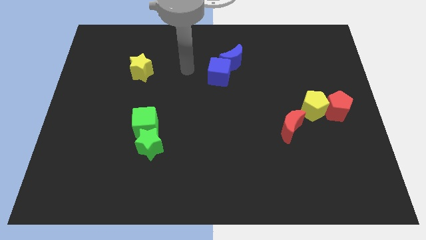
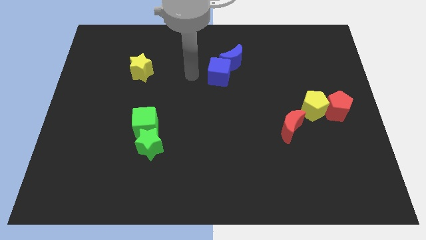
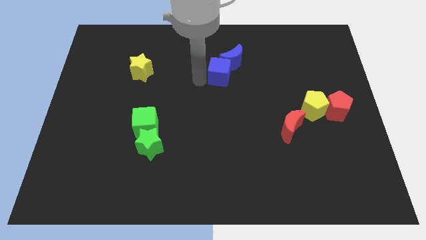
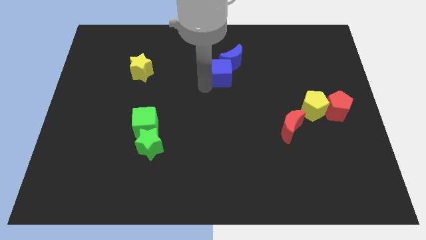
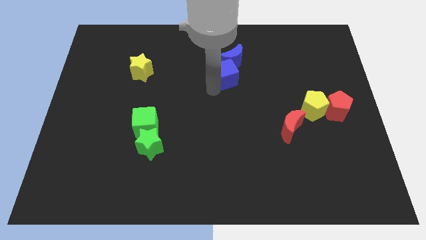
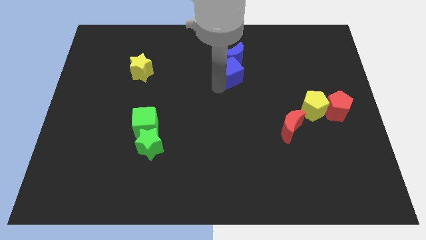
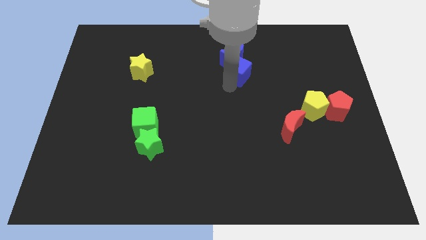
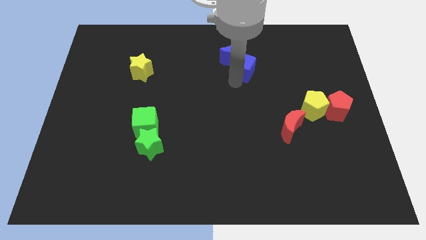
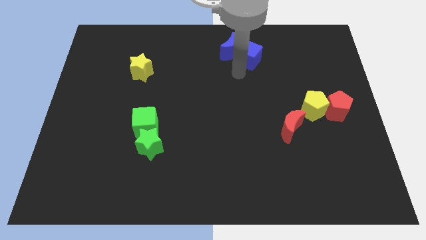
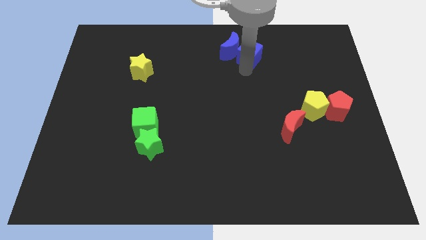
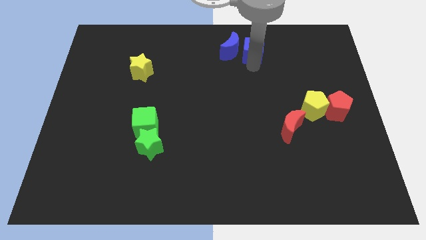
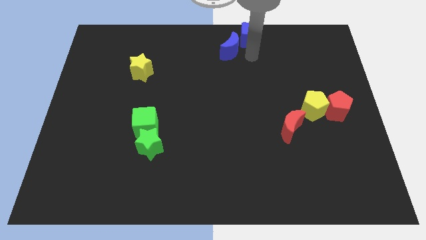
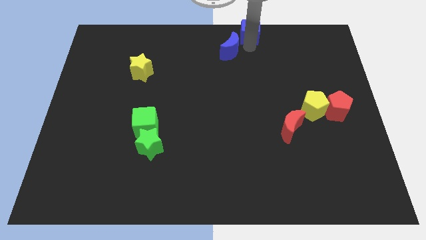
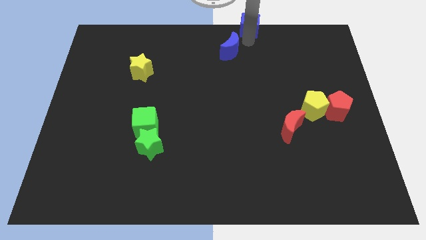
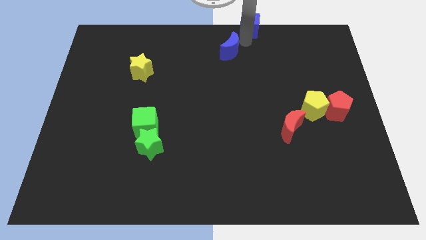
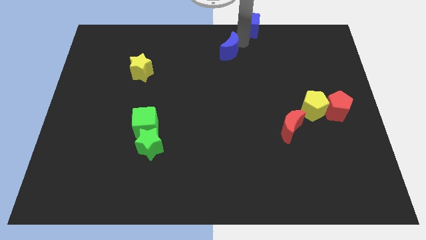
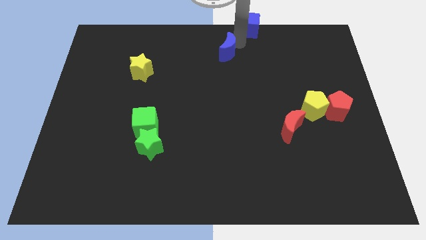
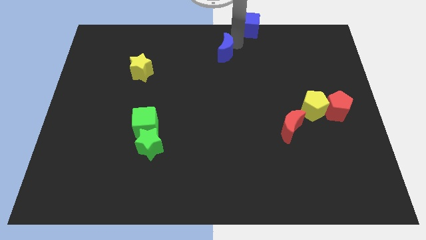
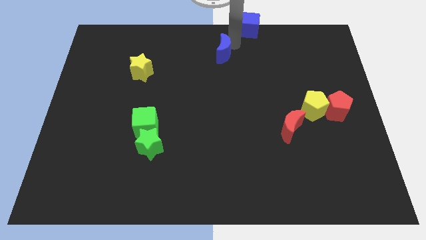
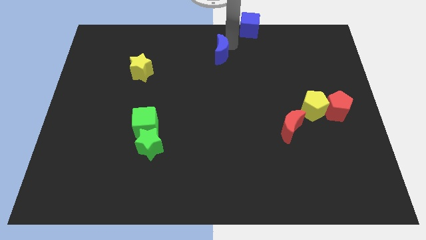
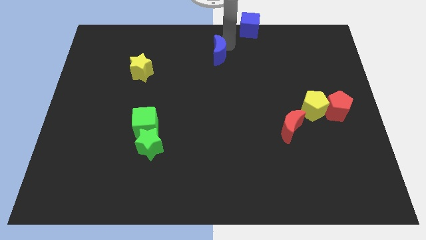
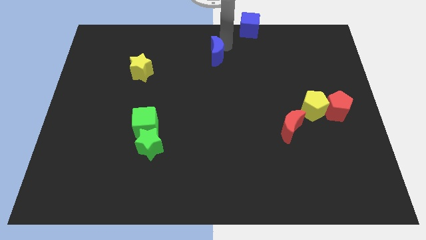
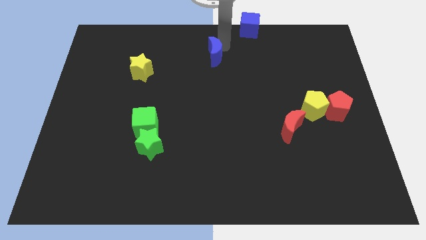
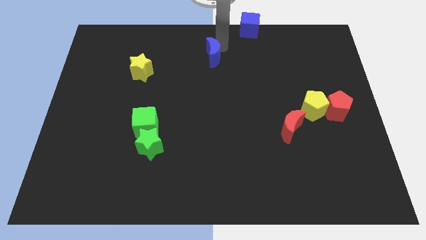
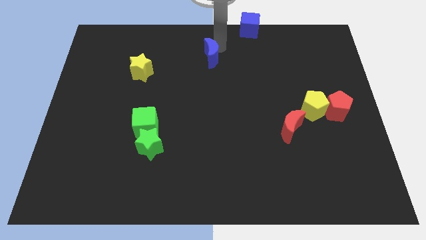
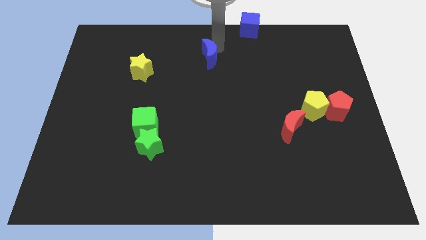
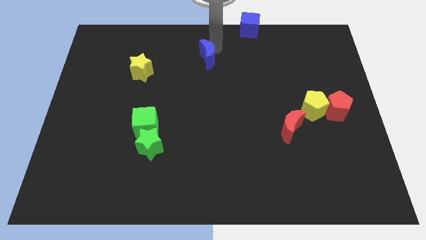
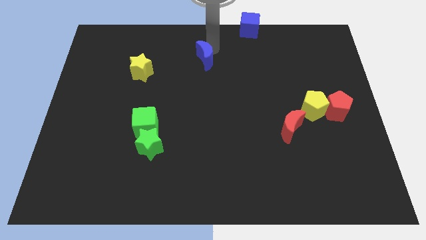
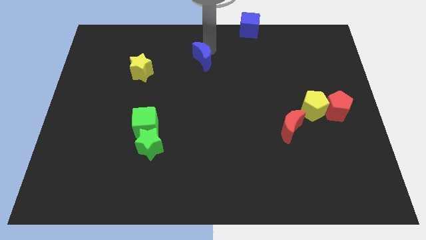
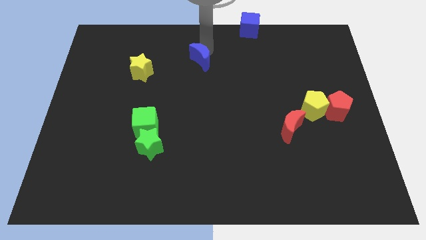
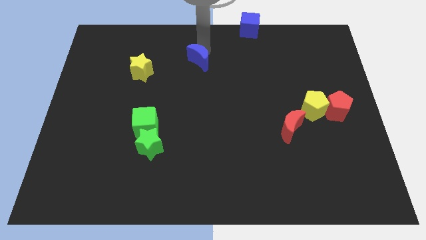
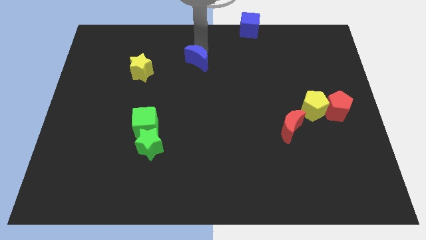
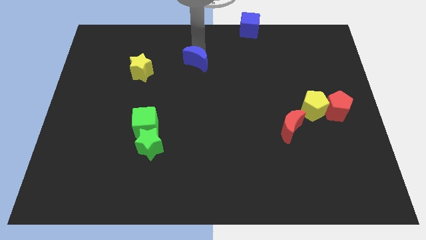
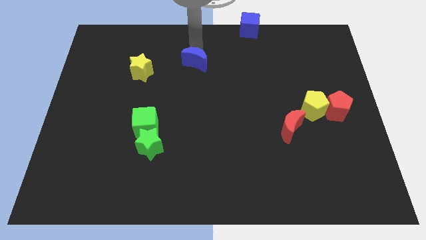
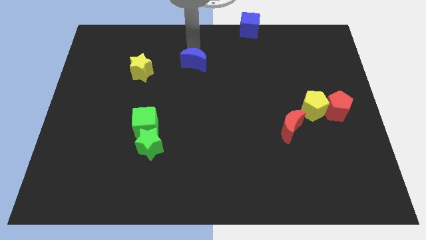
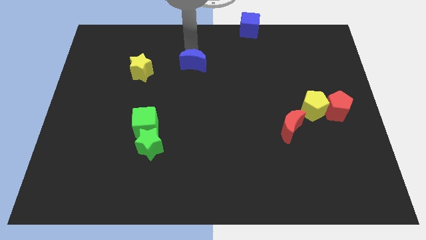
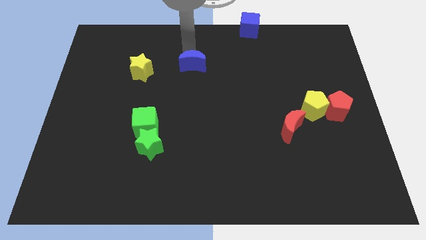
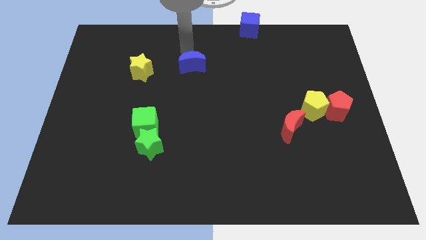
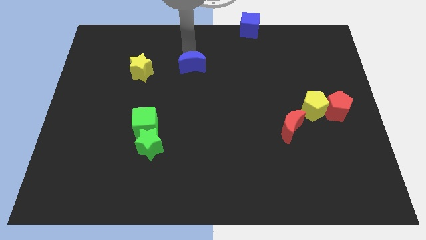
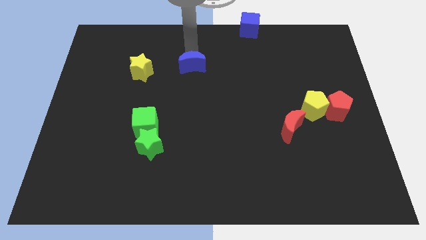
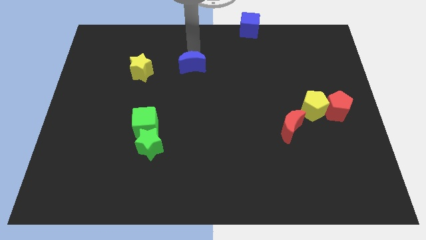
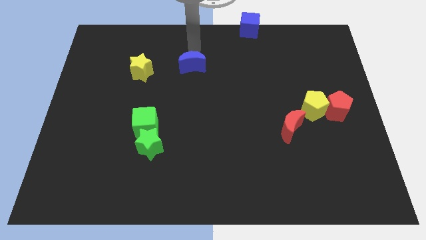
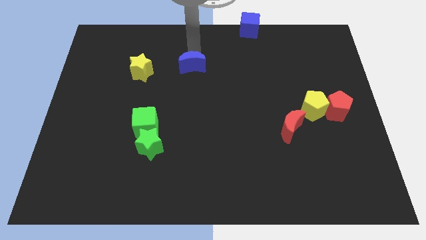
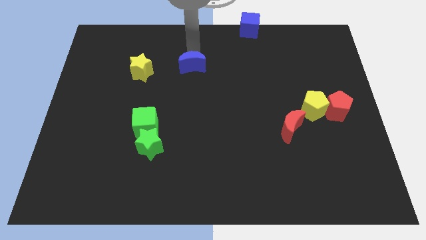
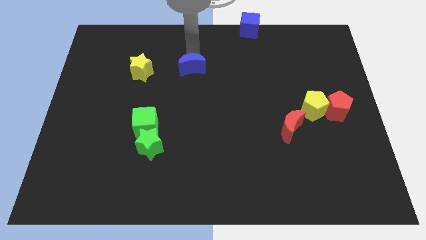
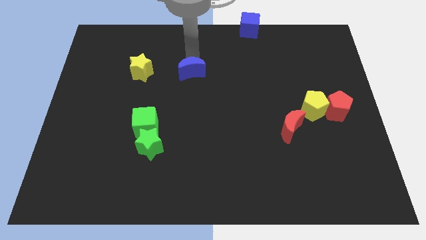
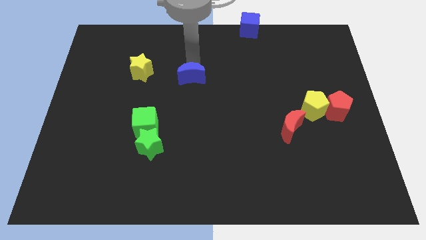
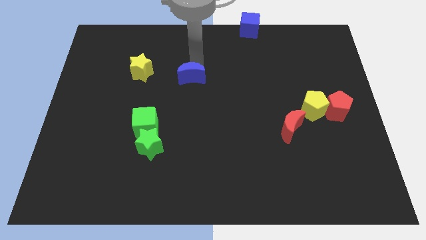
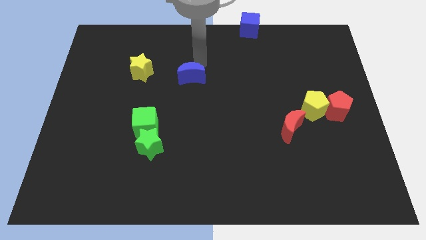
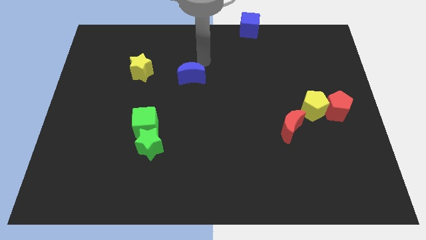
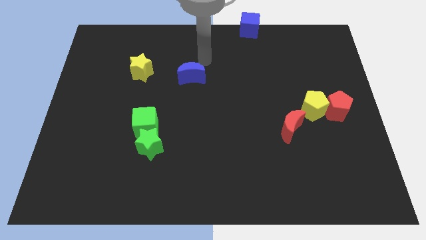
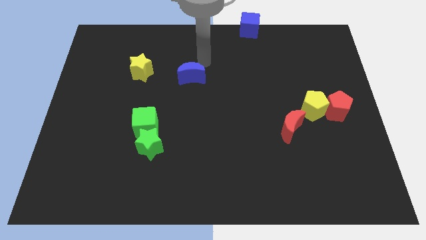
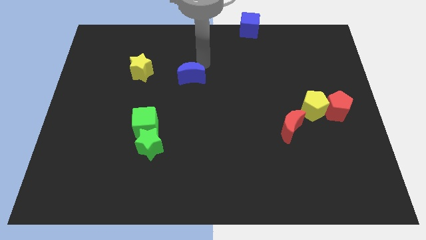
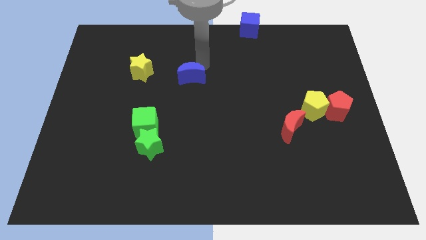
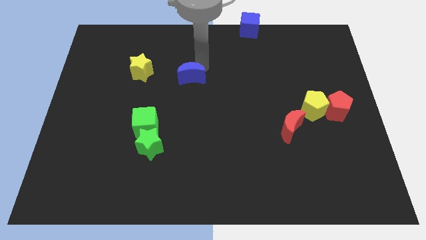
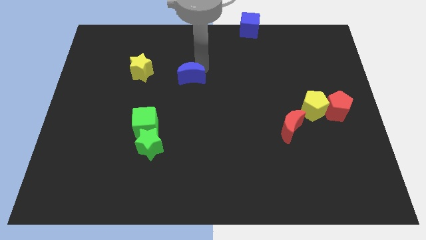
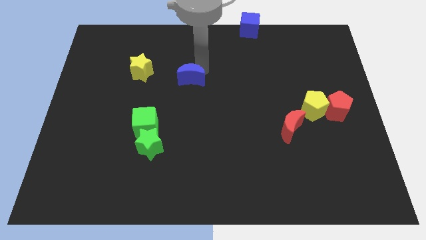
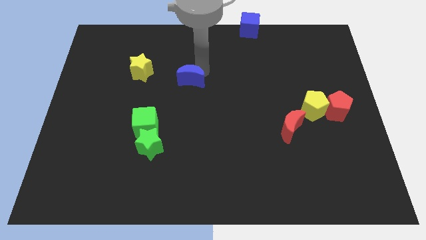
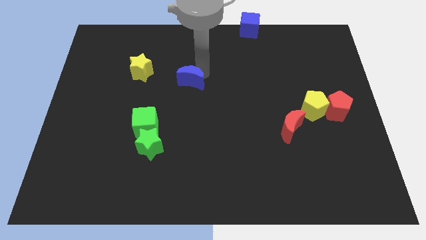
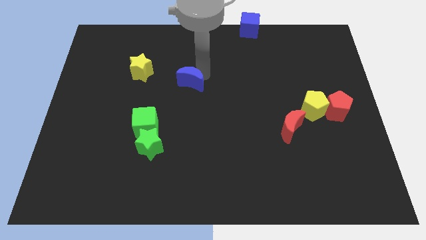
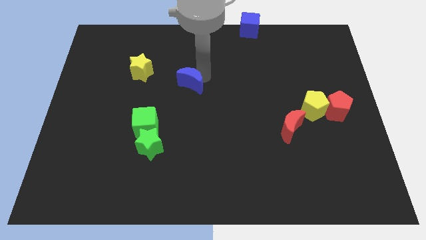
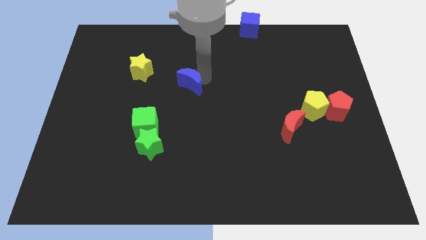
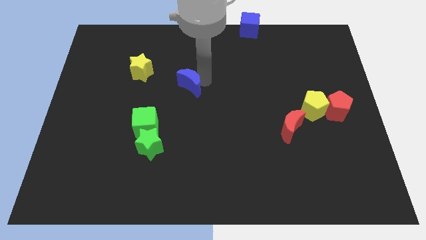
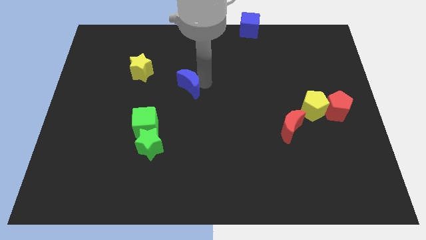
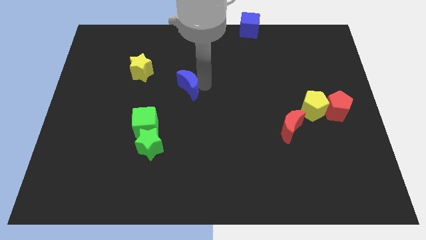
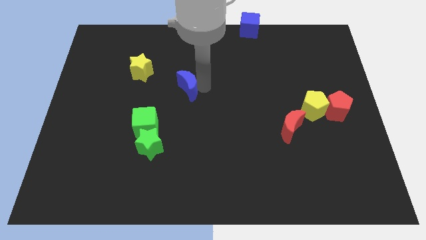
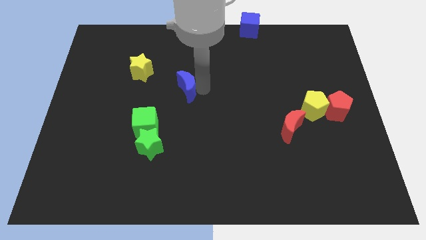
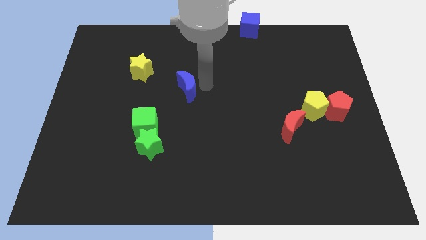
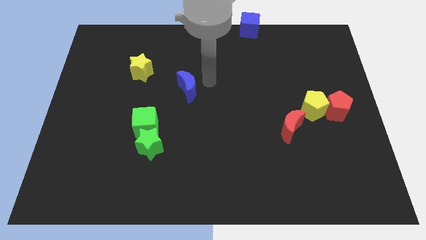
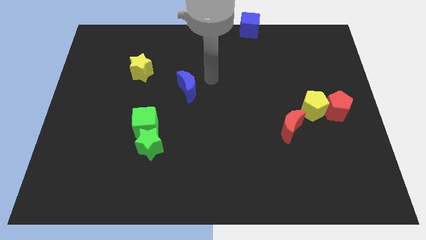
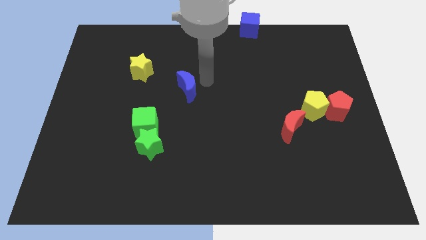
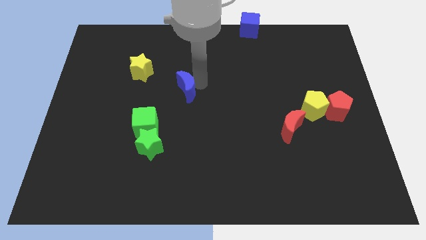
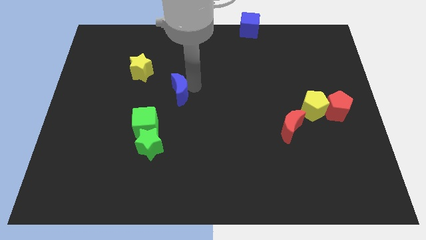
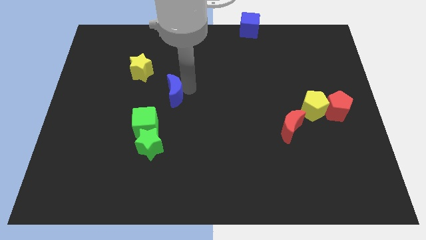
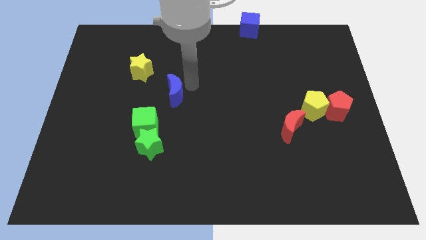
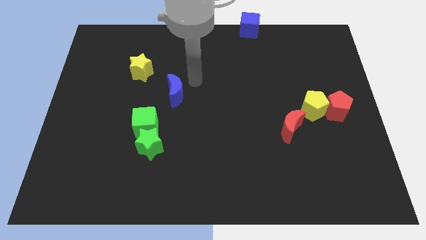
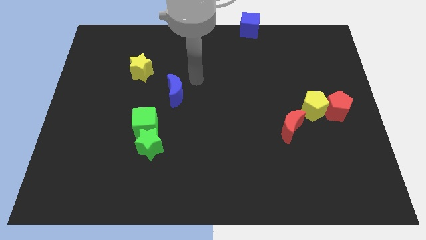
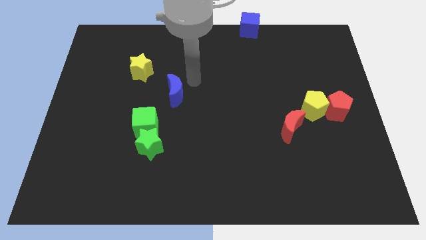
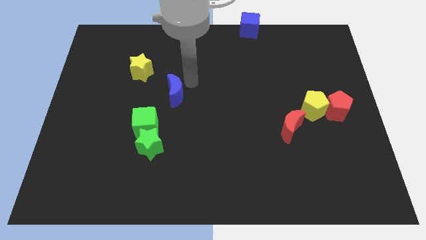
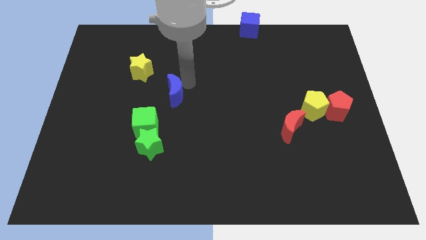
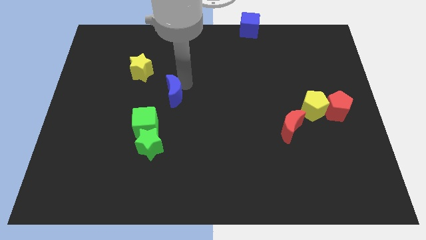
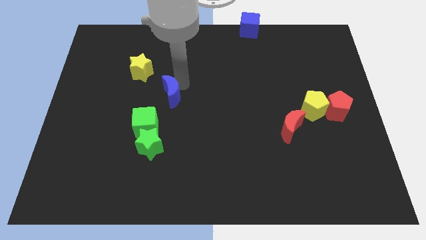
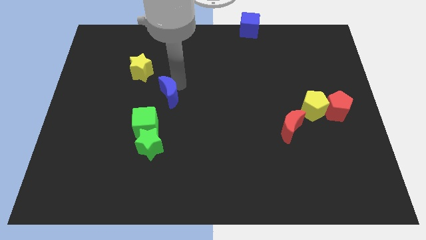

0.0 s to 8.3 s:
move the blue moon to the top side of the green star
